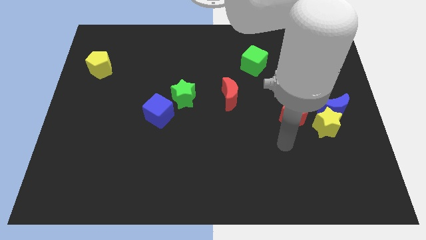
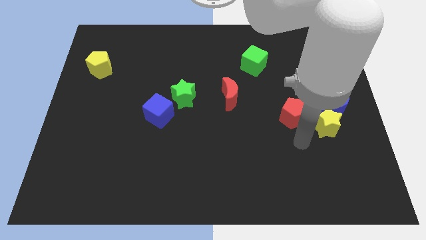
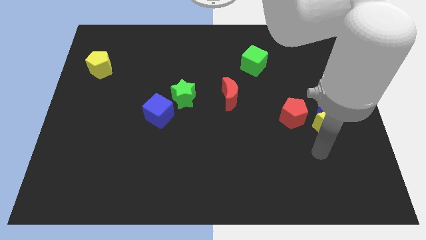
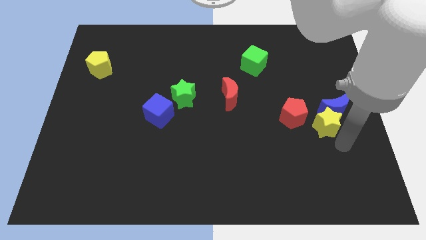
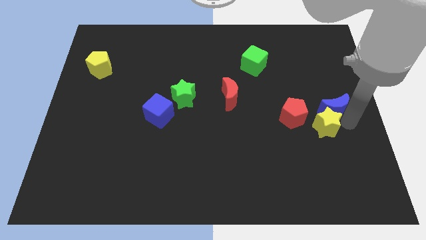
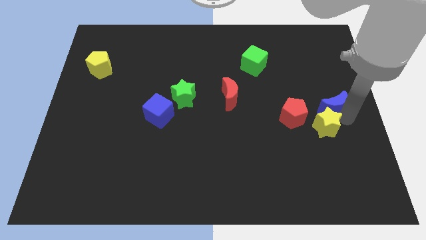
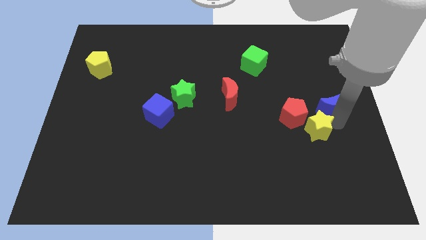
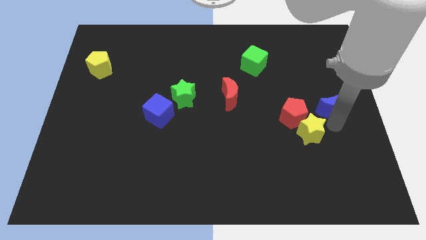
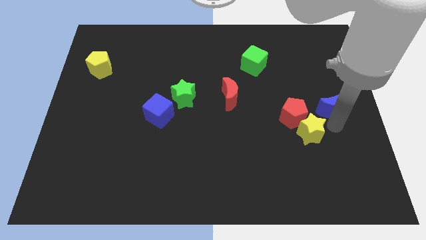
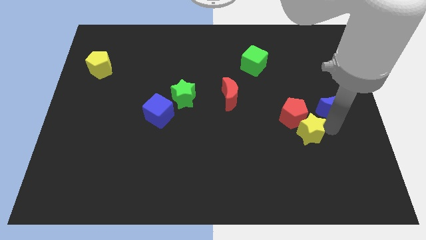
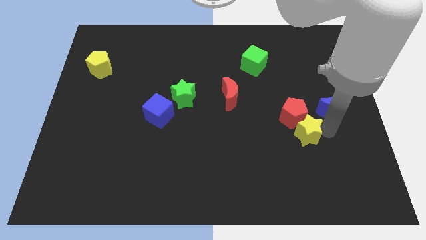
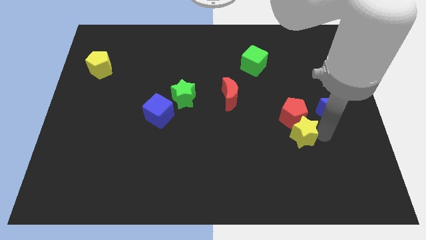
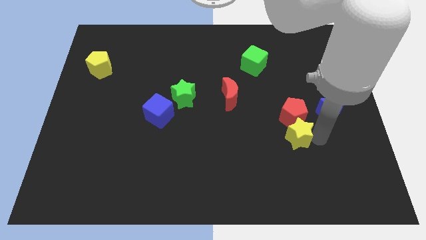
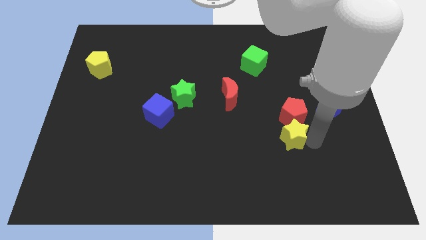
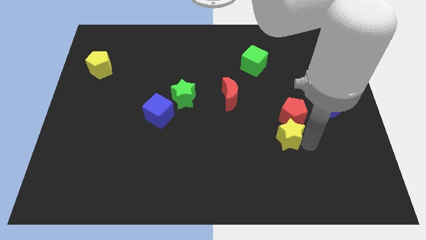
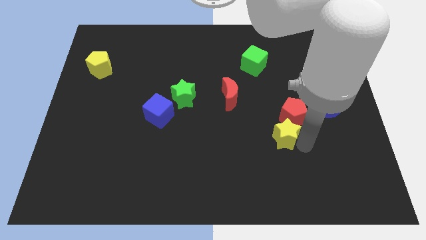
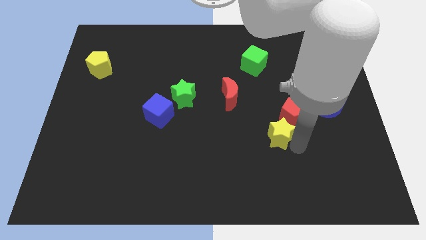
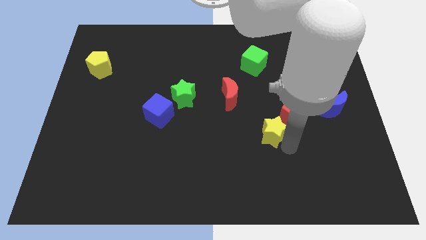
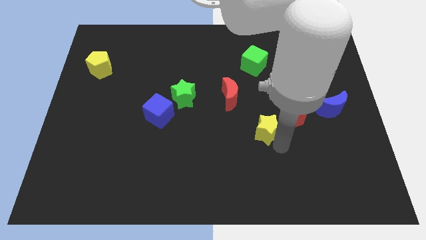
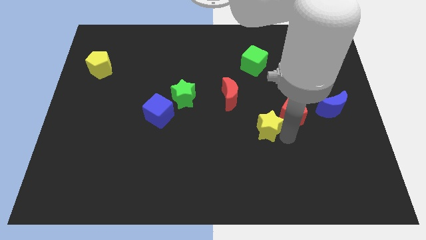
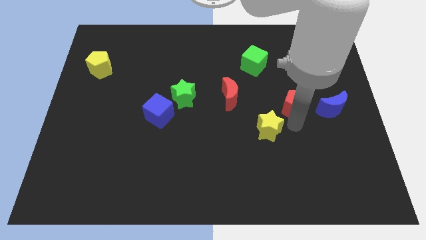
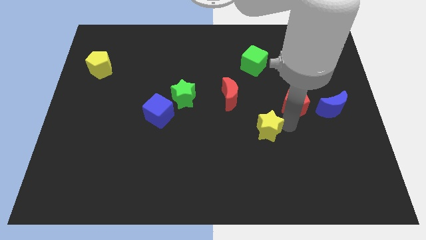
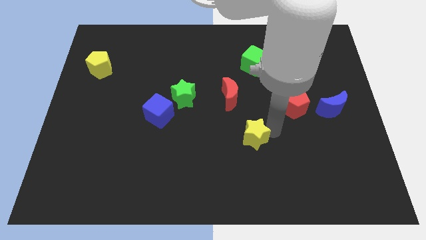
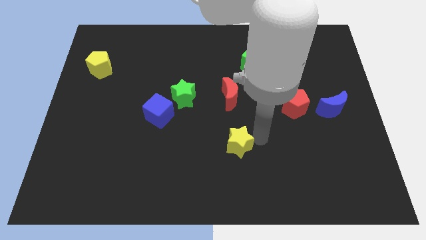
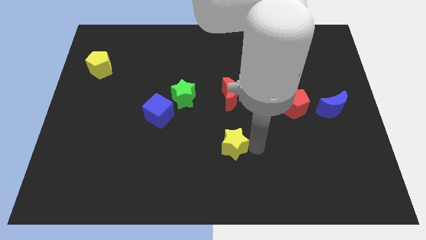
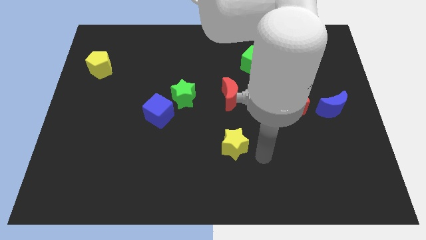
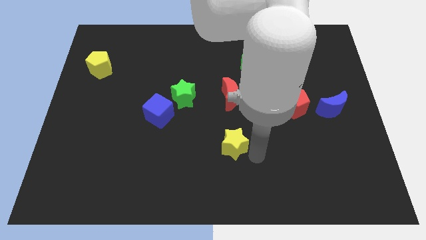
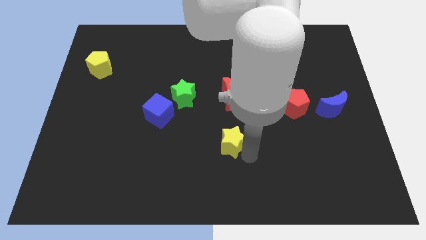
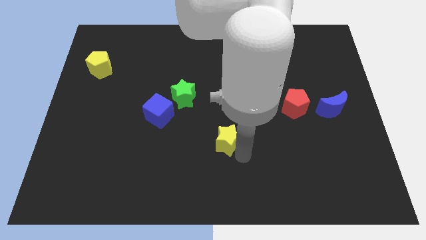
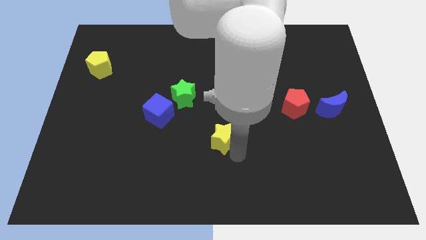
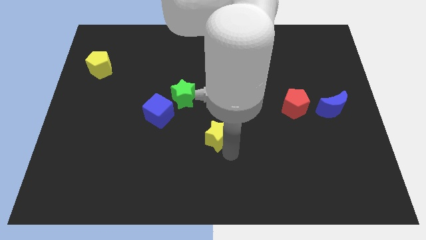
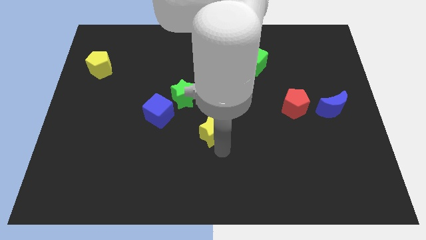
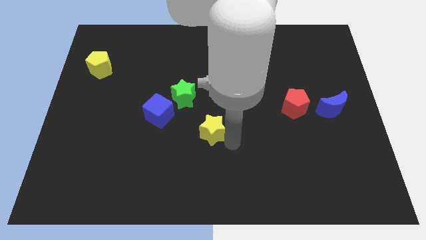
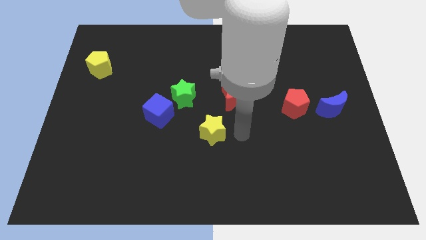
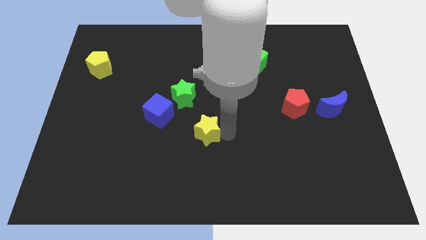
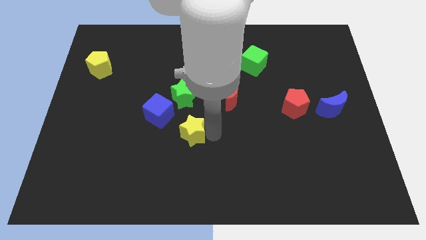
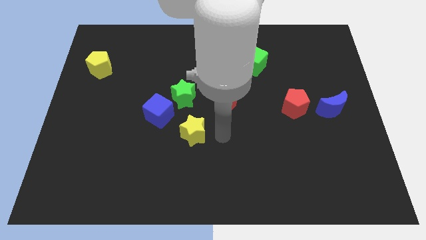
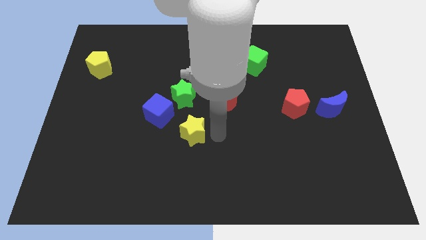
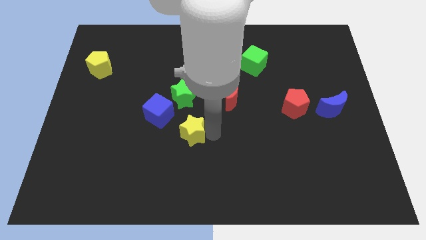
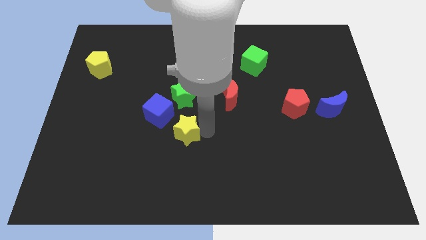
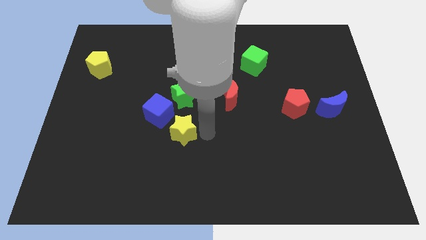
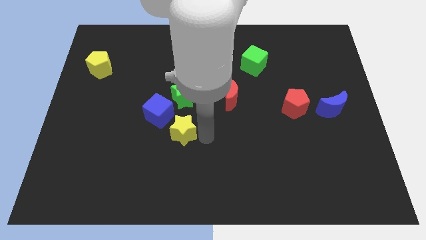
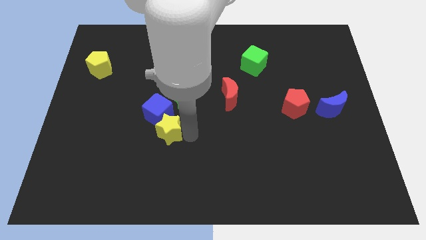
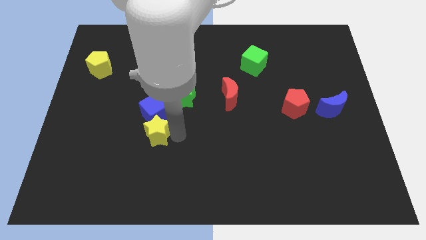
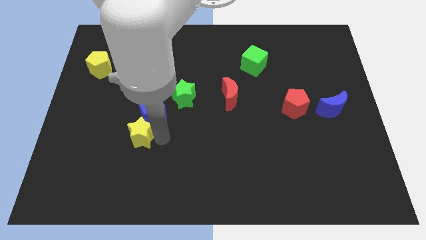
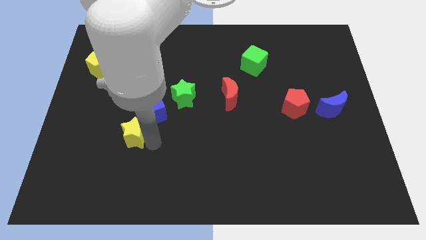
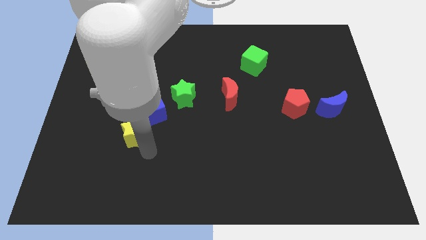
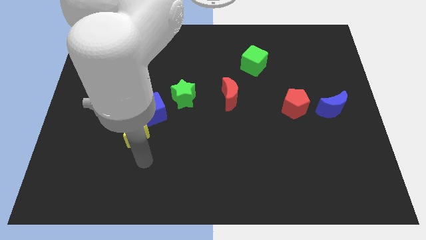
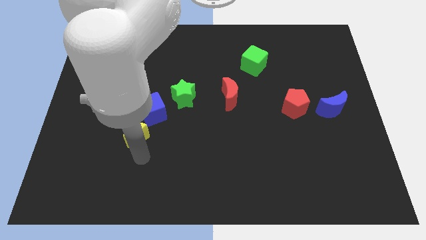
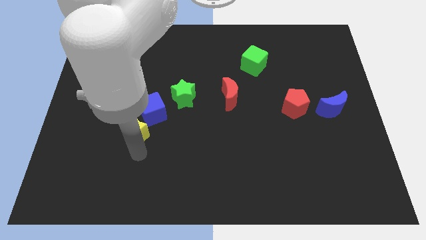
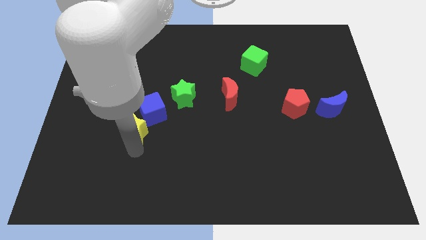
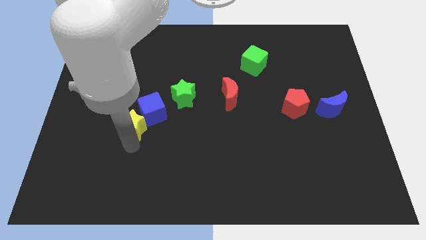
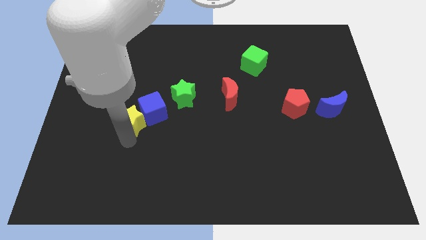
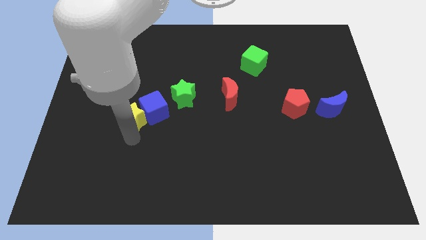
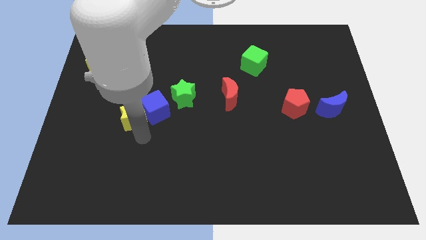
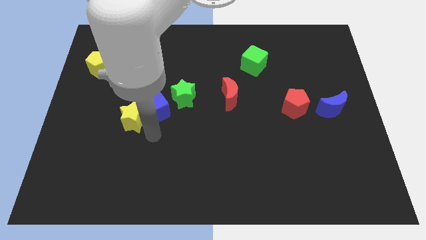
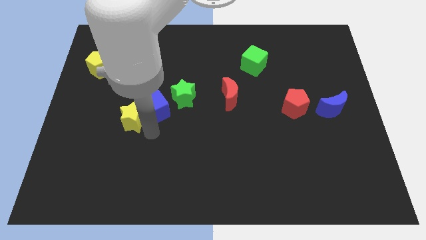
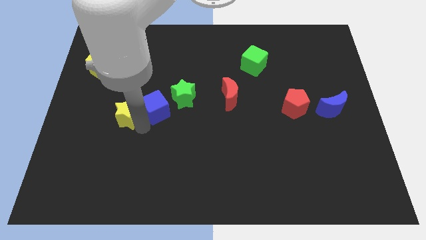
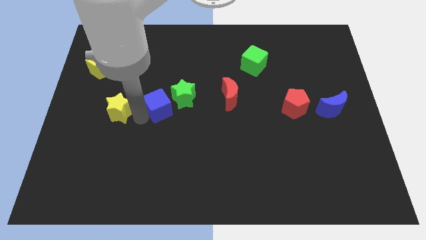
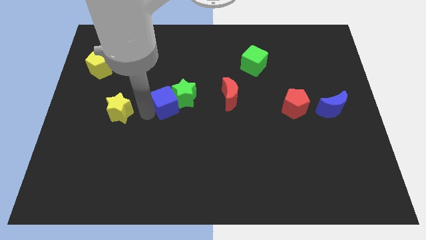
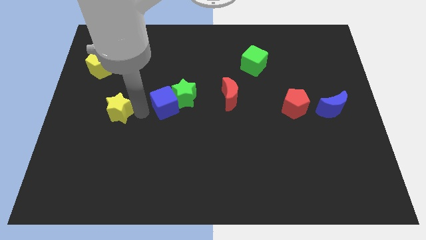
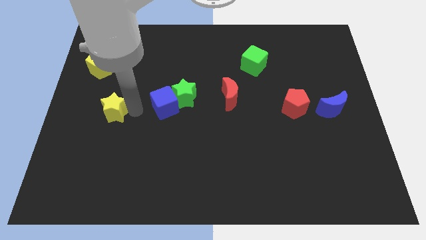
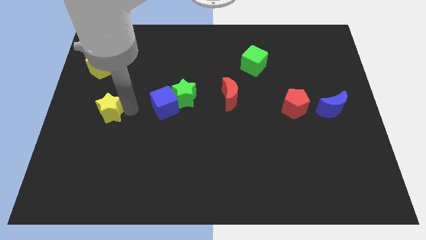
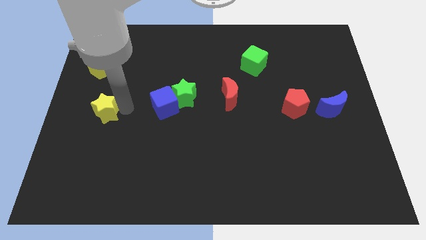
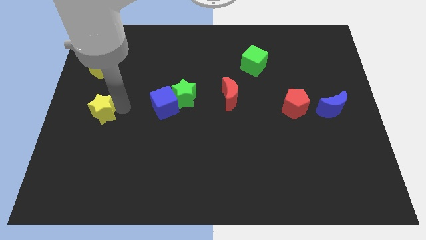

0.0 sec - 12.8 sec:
put the yellow star to the left side of the board
